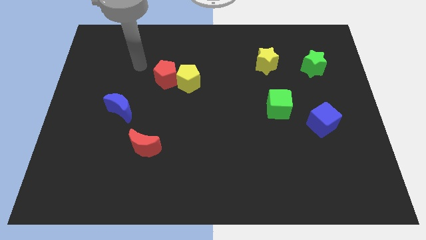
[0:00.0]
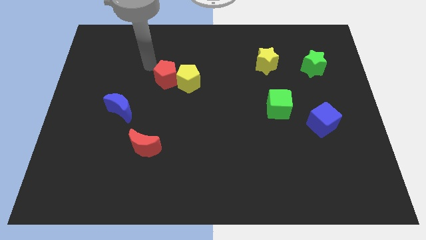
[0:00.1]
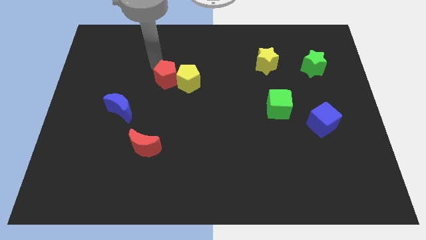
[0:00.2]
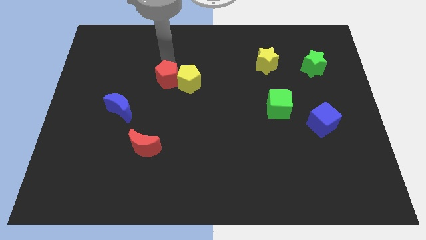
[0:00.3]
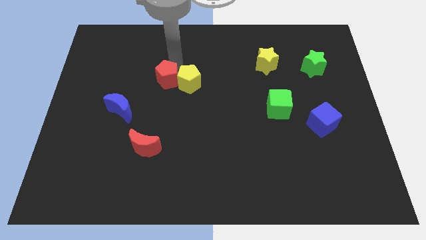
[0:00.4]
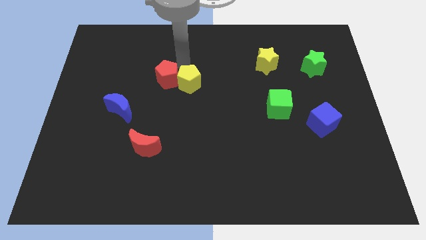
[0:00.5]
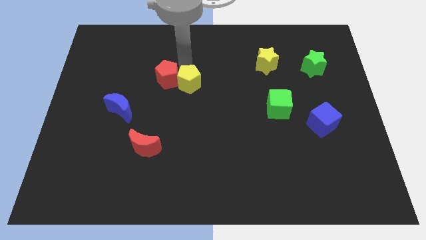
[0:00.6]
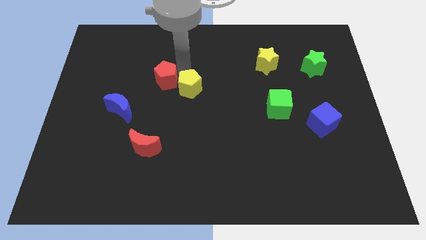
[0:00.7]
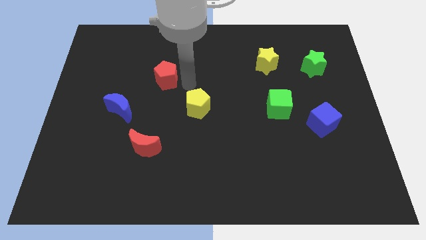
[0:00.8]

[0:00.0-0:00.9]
move the red pentagon away from the yellow pentagon

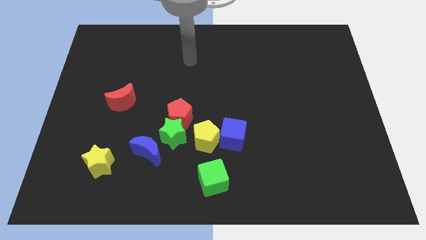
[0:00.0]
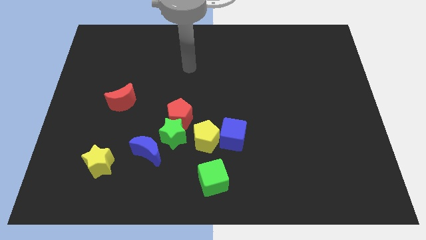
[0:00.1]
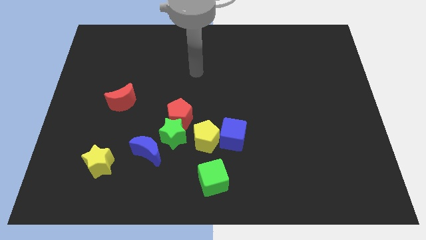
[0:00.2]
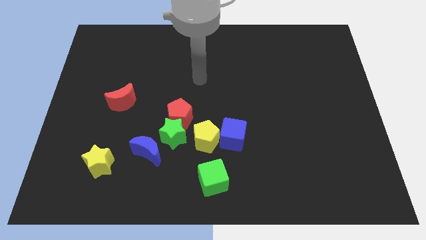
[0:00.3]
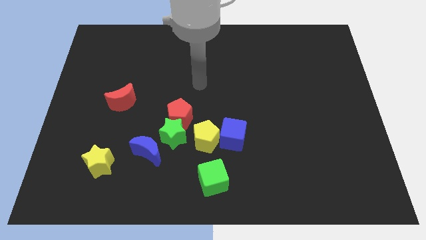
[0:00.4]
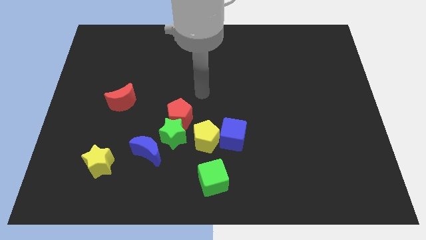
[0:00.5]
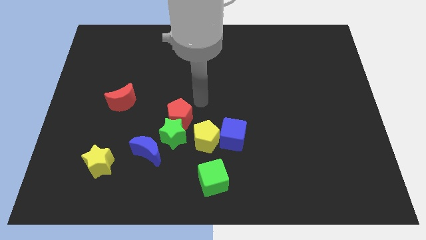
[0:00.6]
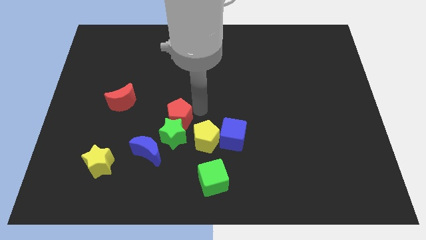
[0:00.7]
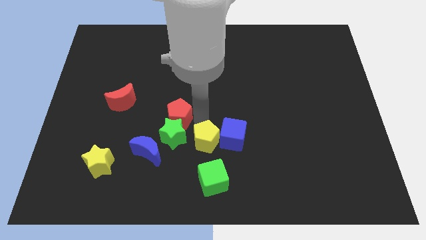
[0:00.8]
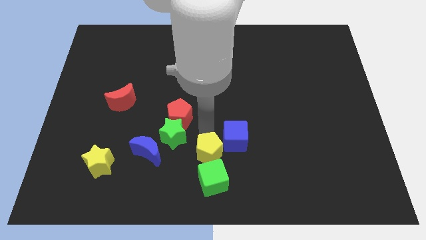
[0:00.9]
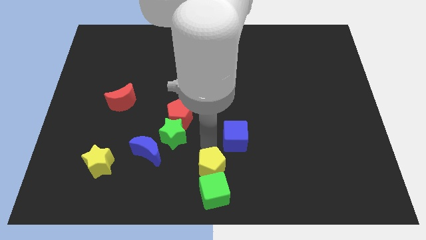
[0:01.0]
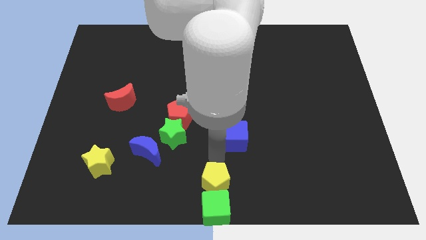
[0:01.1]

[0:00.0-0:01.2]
pull the blue cube apart from the yellow pentagon

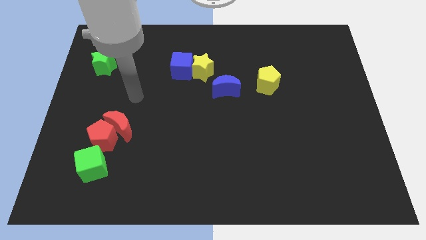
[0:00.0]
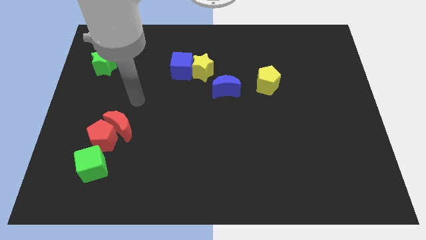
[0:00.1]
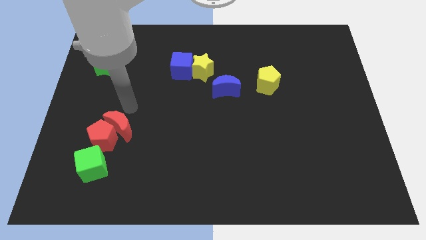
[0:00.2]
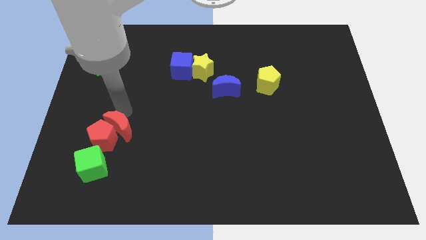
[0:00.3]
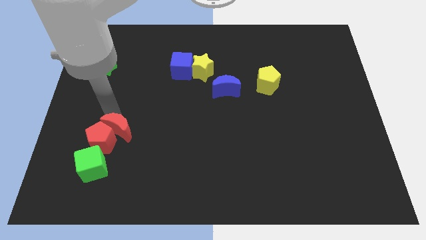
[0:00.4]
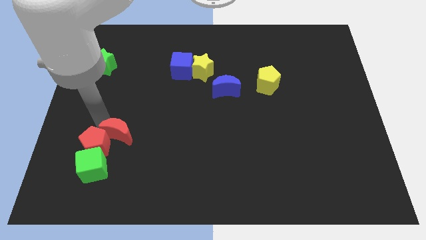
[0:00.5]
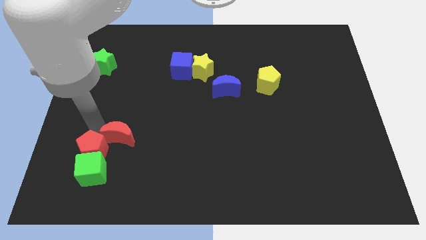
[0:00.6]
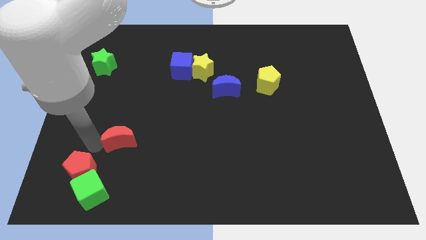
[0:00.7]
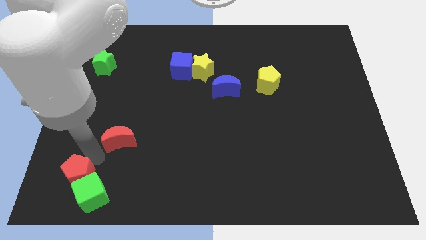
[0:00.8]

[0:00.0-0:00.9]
move the red moon away from the red pentagon

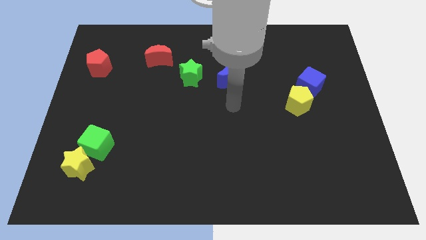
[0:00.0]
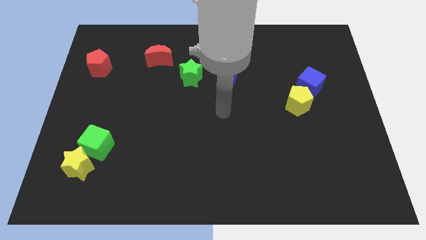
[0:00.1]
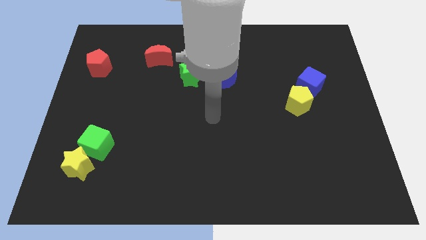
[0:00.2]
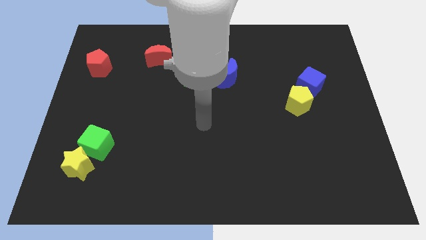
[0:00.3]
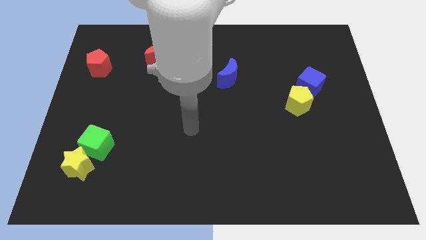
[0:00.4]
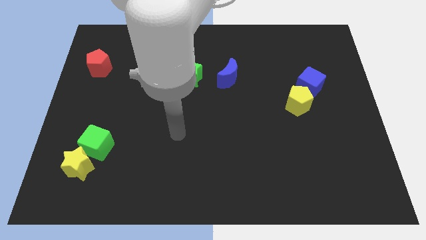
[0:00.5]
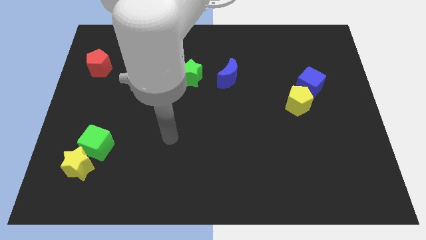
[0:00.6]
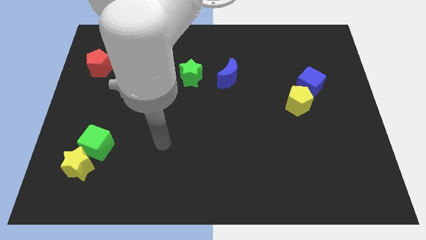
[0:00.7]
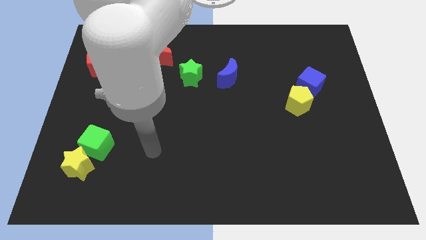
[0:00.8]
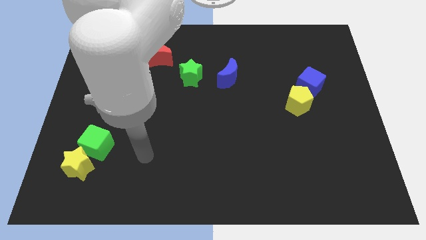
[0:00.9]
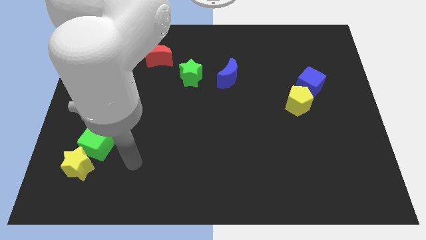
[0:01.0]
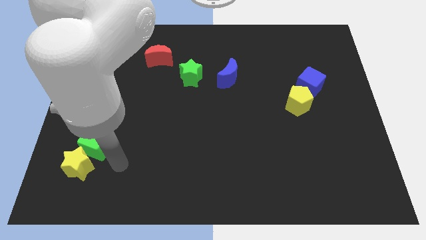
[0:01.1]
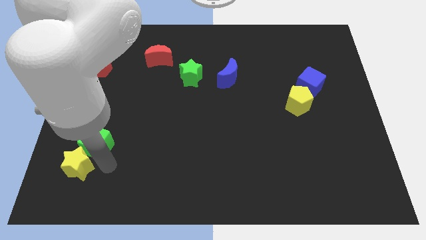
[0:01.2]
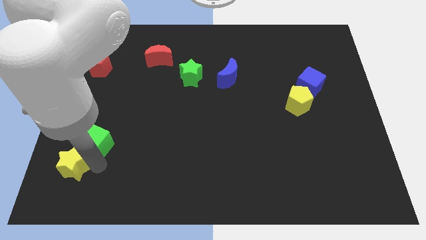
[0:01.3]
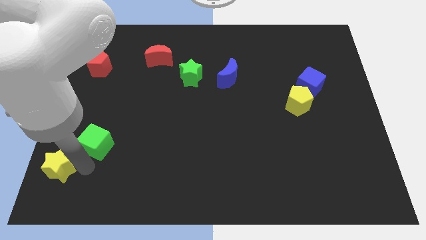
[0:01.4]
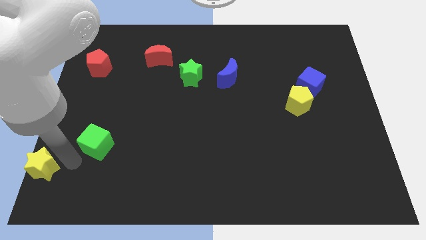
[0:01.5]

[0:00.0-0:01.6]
move the green cube away from the yellow star

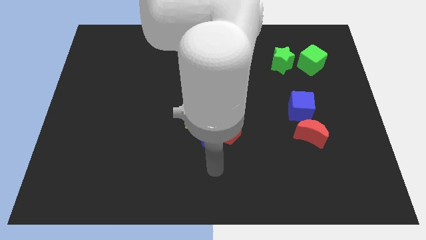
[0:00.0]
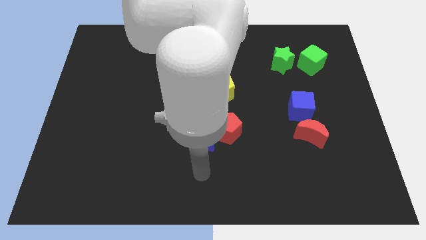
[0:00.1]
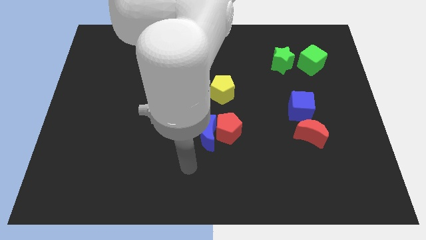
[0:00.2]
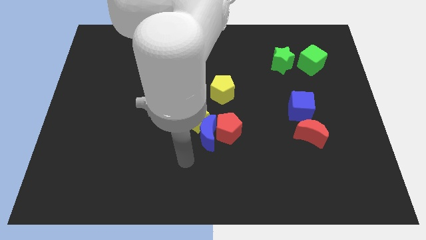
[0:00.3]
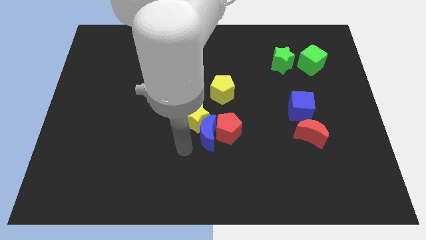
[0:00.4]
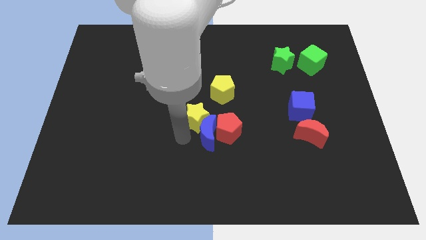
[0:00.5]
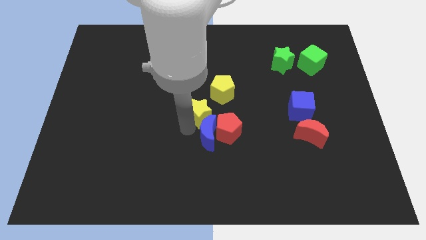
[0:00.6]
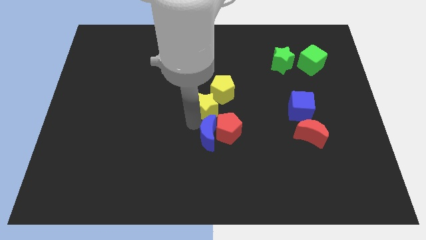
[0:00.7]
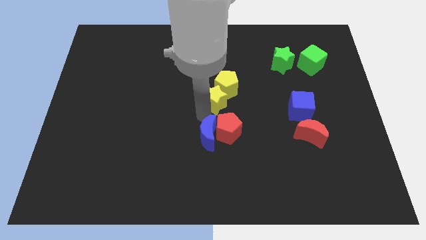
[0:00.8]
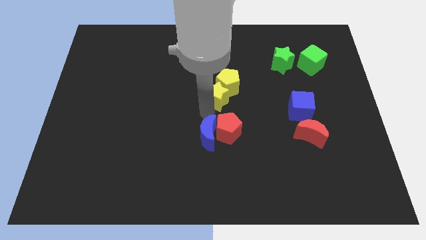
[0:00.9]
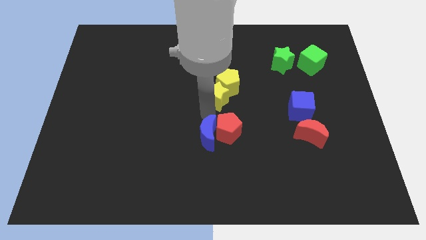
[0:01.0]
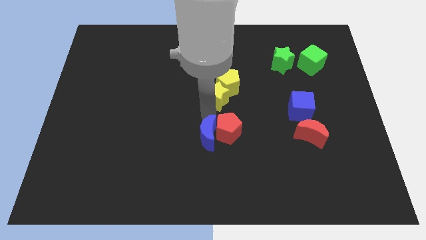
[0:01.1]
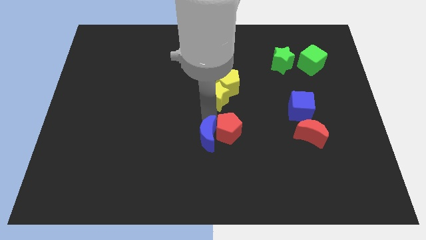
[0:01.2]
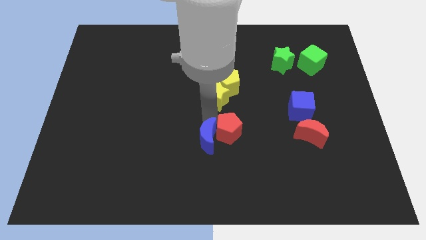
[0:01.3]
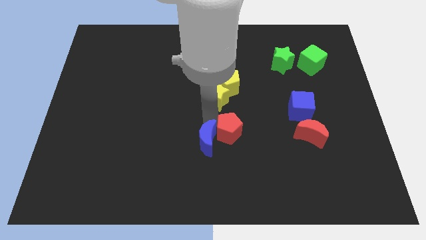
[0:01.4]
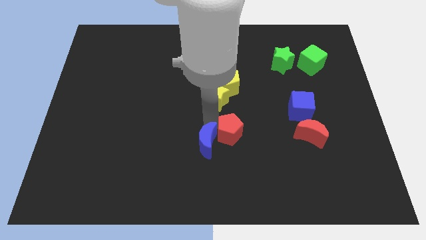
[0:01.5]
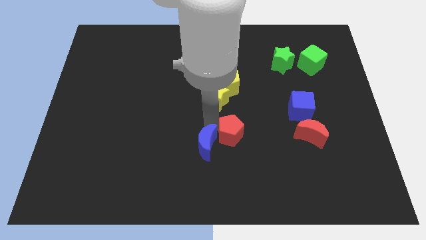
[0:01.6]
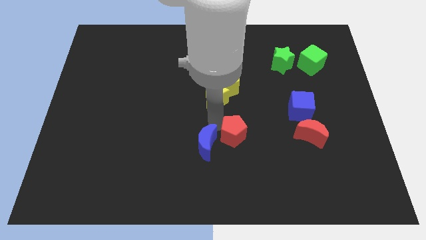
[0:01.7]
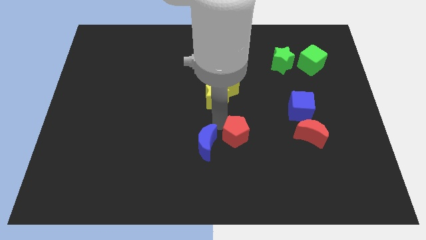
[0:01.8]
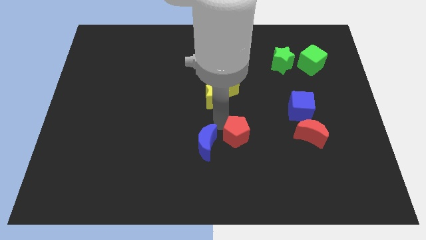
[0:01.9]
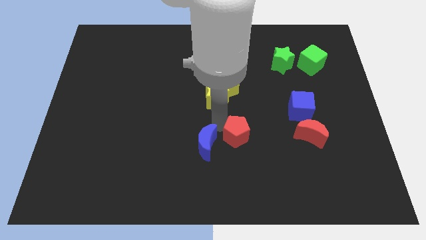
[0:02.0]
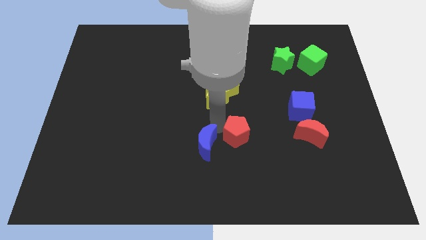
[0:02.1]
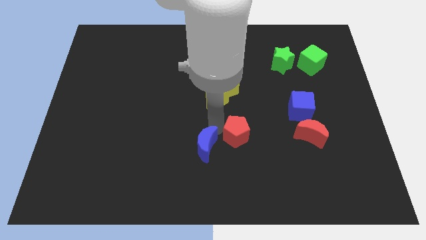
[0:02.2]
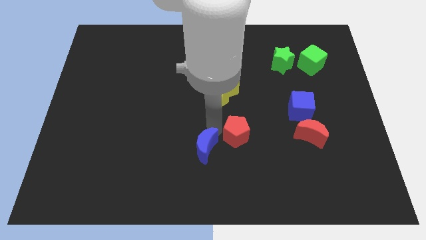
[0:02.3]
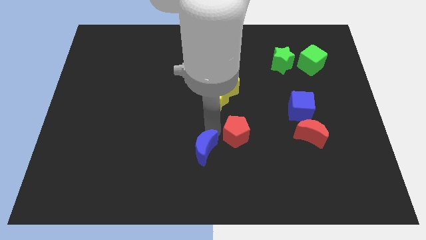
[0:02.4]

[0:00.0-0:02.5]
separate the blue moon from the red pentagon and yellow star

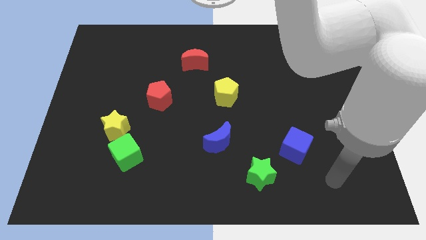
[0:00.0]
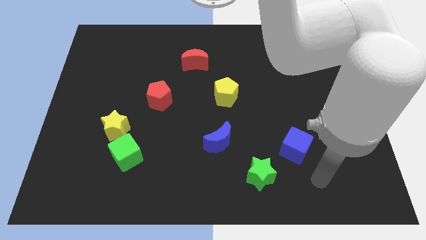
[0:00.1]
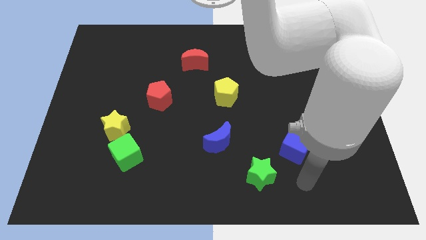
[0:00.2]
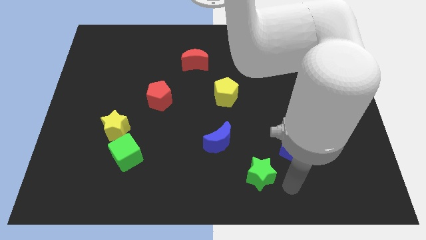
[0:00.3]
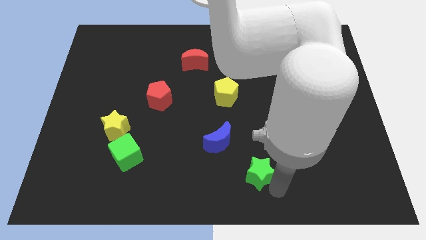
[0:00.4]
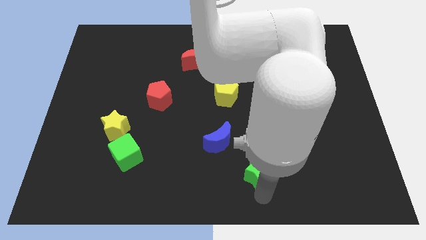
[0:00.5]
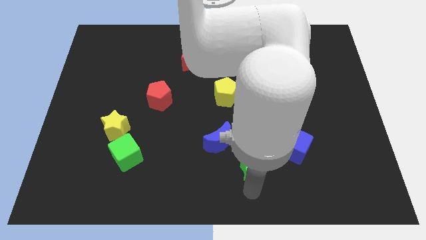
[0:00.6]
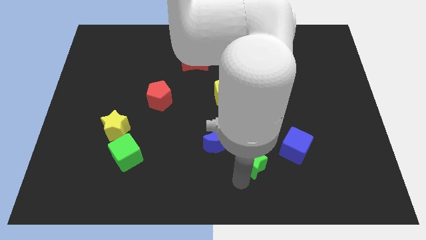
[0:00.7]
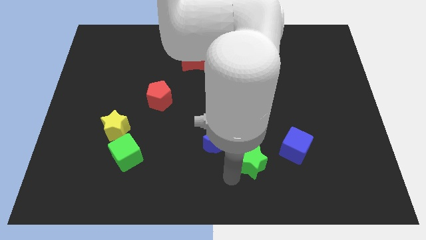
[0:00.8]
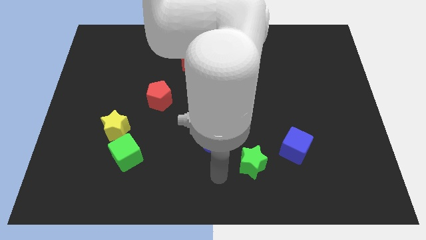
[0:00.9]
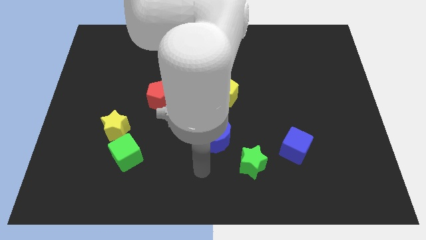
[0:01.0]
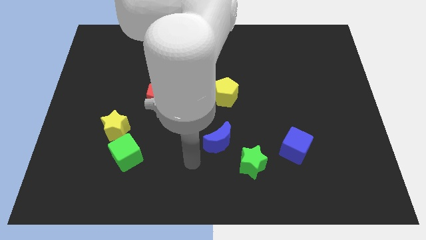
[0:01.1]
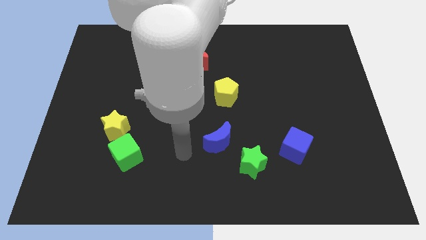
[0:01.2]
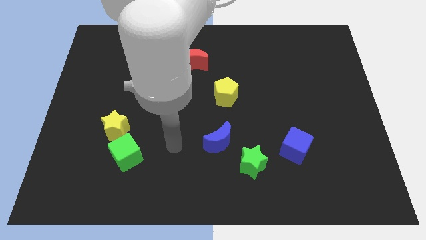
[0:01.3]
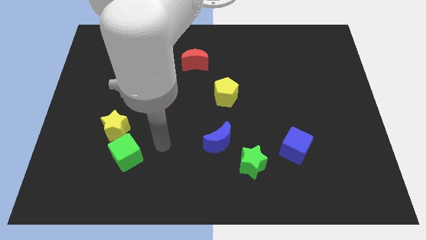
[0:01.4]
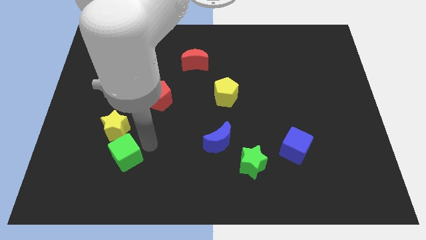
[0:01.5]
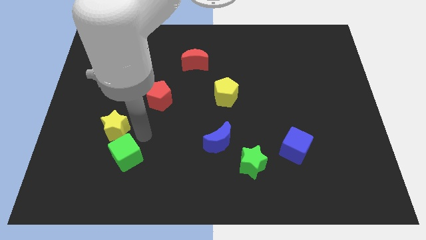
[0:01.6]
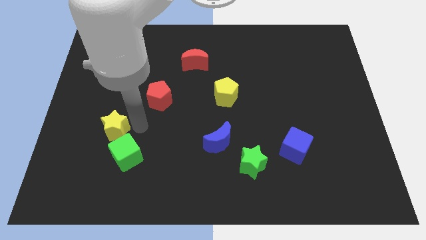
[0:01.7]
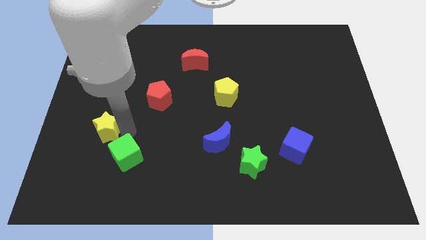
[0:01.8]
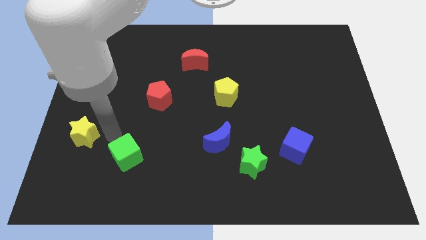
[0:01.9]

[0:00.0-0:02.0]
pull the green cube apart from the yellow star

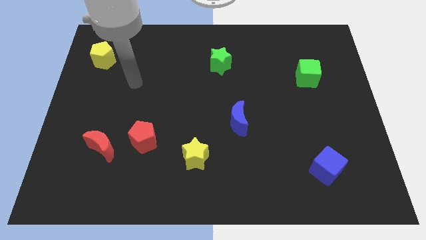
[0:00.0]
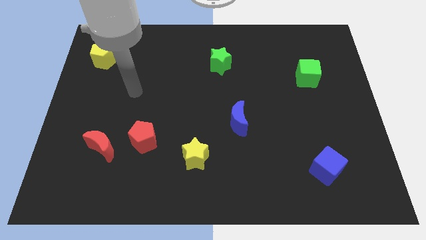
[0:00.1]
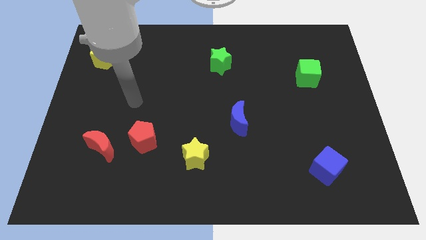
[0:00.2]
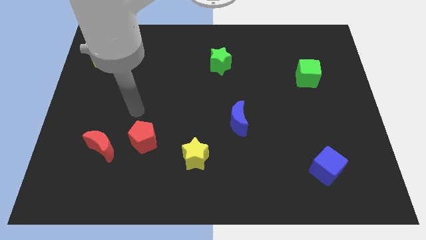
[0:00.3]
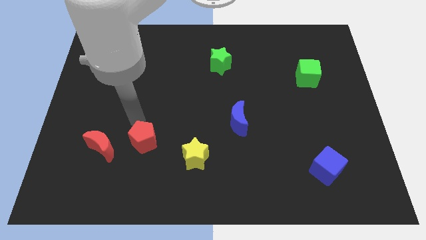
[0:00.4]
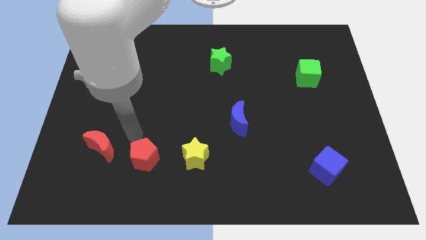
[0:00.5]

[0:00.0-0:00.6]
separate the red moon from the red pentagon
